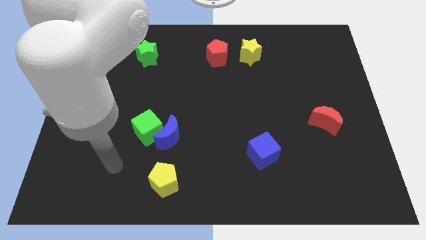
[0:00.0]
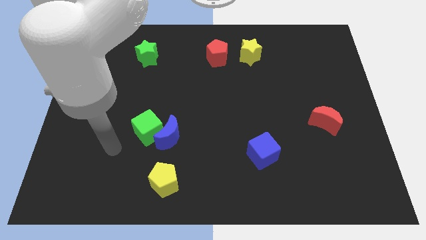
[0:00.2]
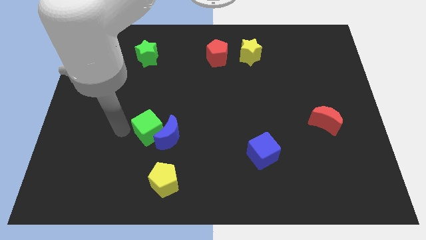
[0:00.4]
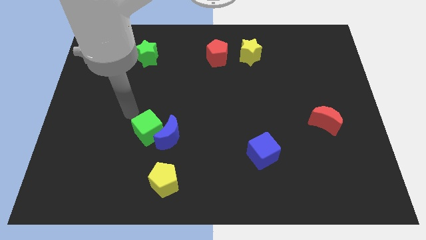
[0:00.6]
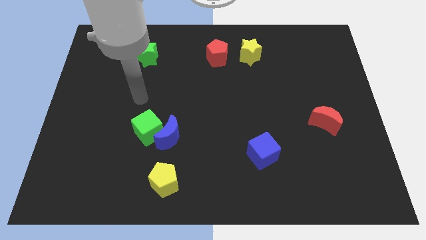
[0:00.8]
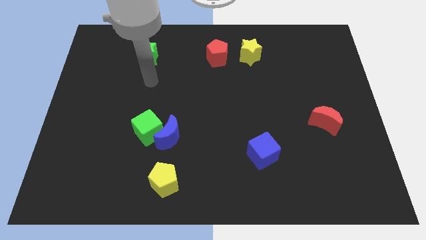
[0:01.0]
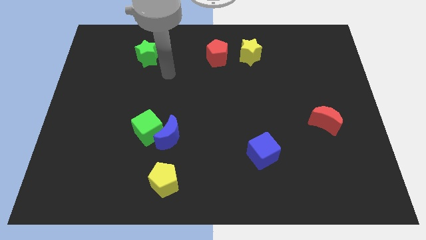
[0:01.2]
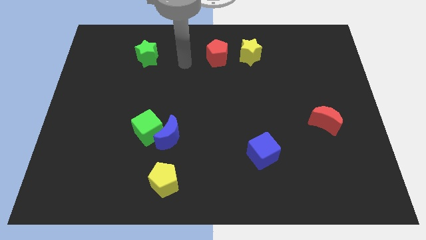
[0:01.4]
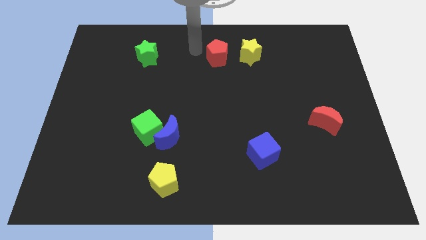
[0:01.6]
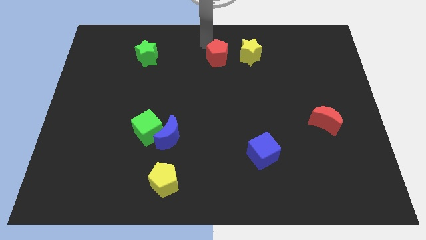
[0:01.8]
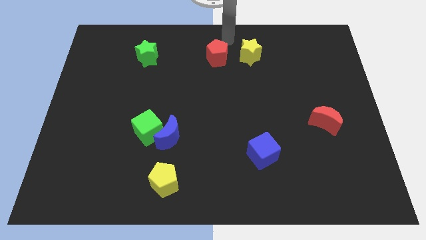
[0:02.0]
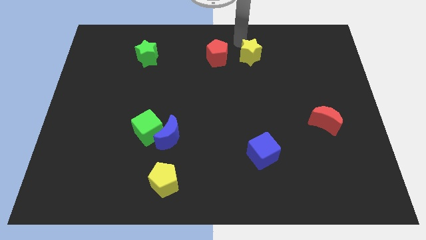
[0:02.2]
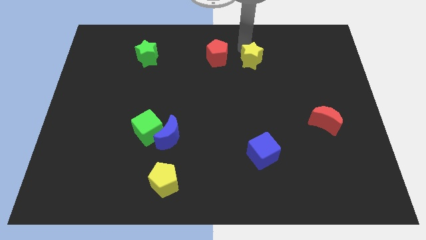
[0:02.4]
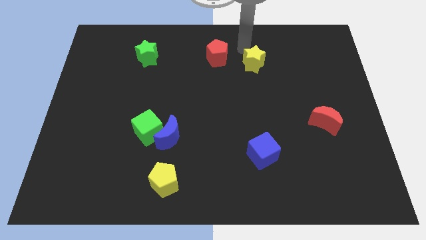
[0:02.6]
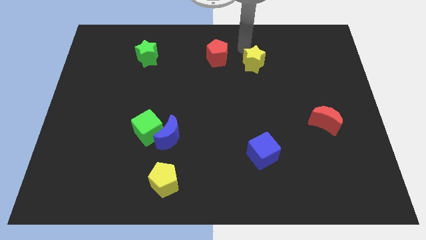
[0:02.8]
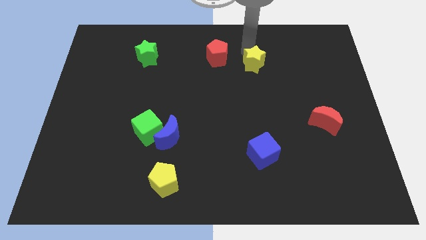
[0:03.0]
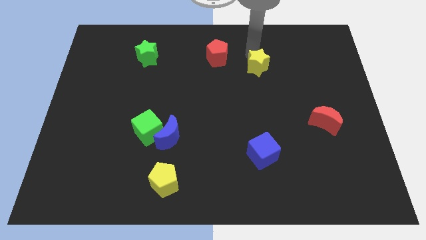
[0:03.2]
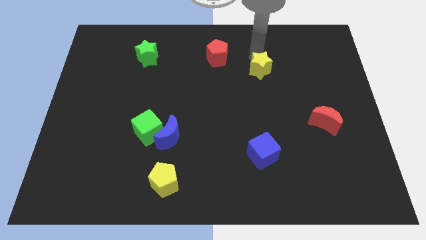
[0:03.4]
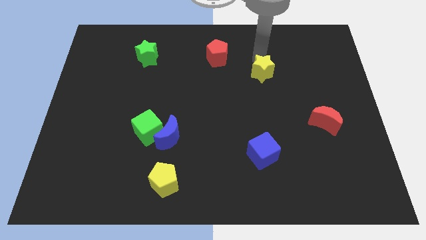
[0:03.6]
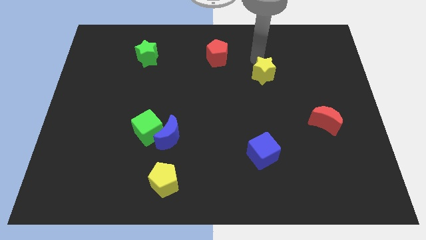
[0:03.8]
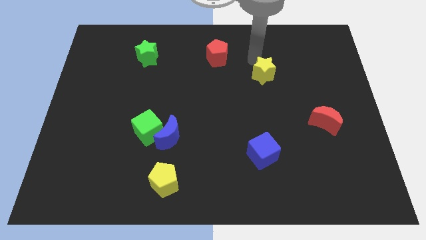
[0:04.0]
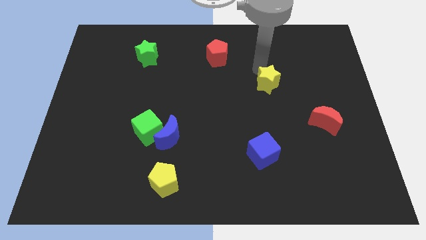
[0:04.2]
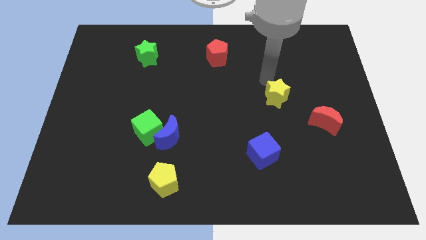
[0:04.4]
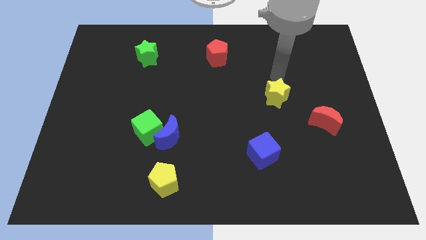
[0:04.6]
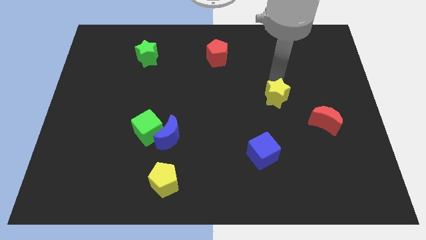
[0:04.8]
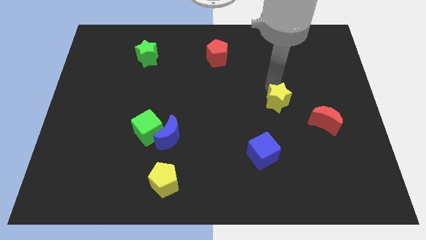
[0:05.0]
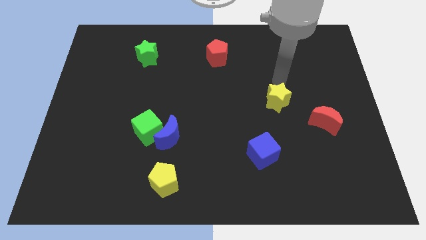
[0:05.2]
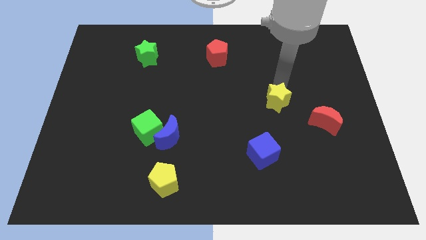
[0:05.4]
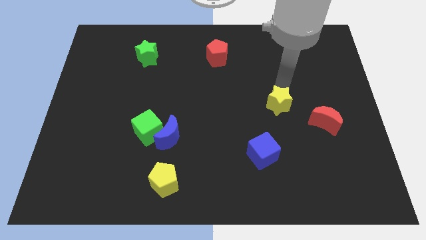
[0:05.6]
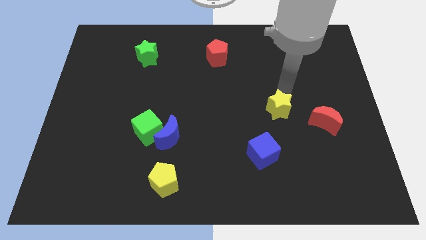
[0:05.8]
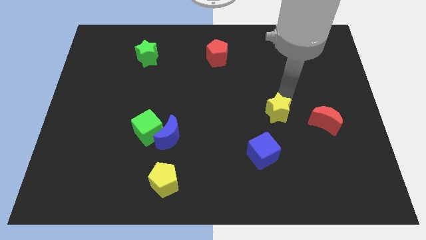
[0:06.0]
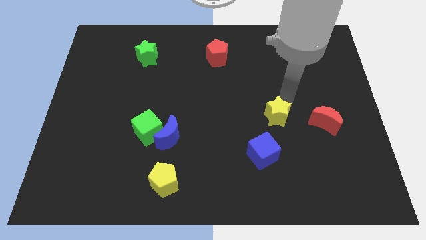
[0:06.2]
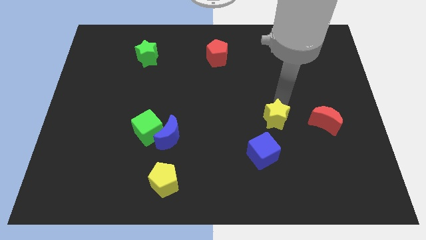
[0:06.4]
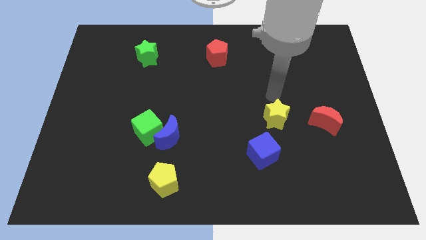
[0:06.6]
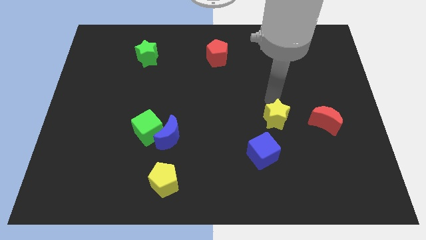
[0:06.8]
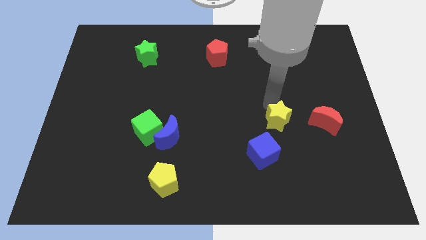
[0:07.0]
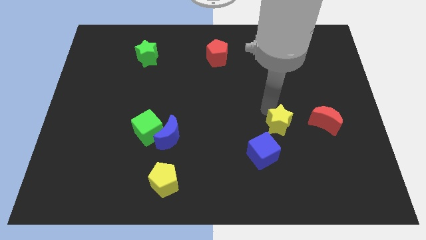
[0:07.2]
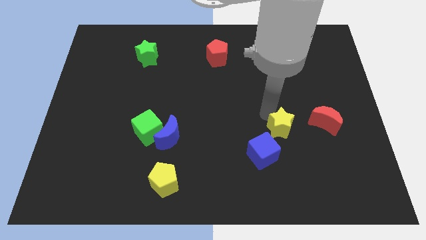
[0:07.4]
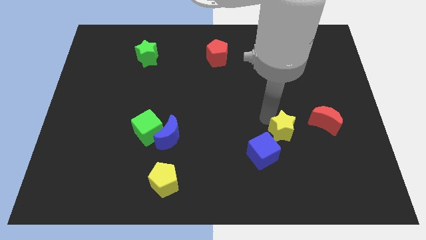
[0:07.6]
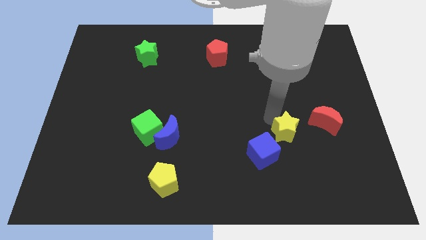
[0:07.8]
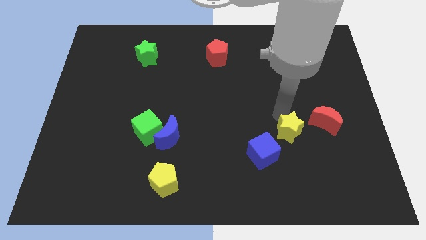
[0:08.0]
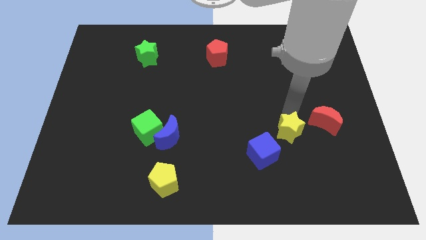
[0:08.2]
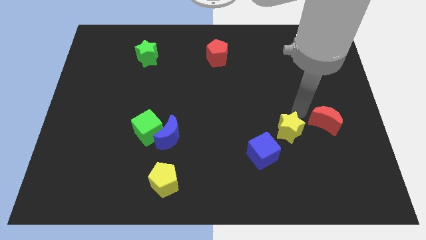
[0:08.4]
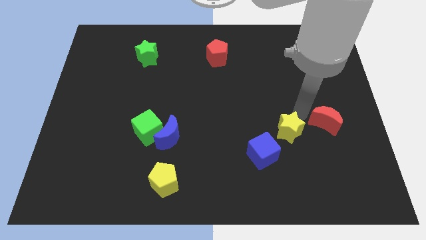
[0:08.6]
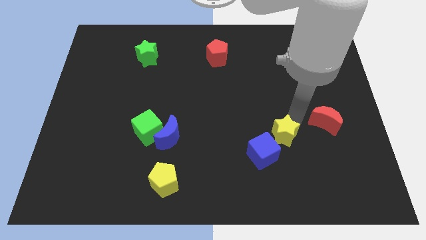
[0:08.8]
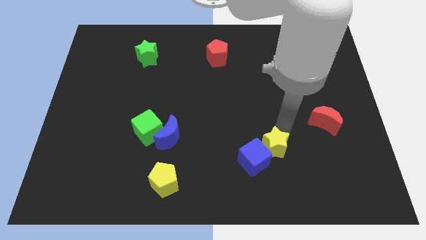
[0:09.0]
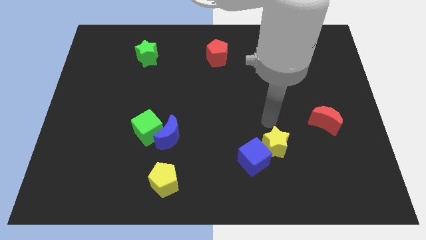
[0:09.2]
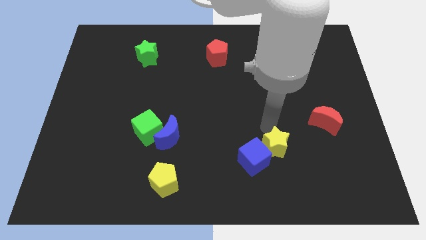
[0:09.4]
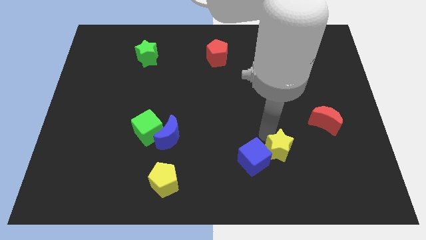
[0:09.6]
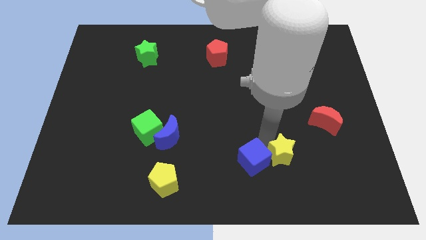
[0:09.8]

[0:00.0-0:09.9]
push the yellow star diagonally down and to the right of the blue cube

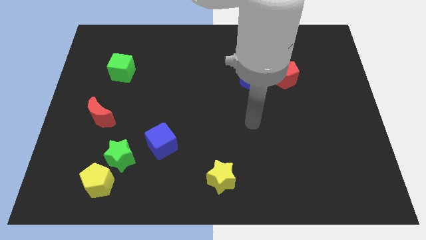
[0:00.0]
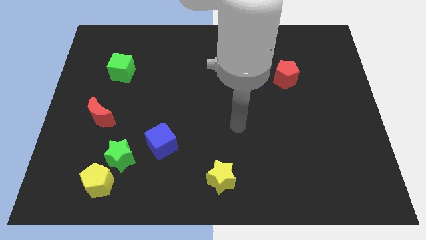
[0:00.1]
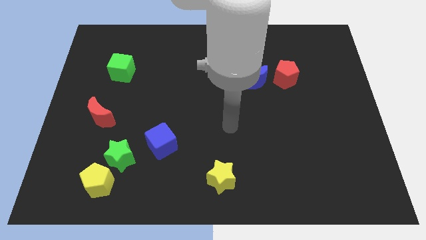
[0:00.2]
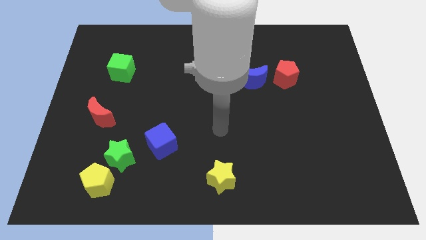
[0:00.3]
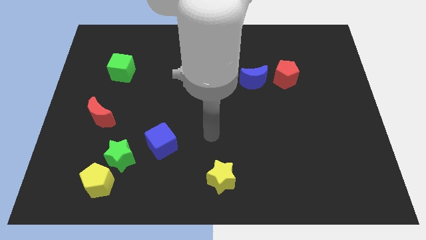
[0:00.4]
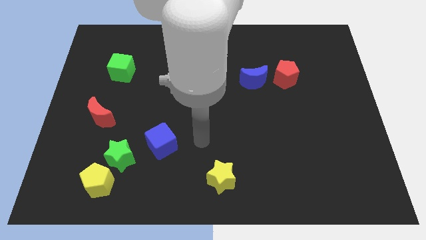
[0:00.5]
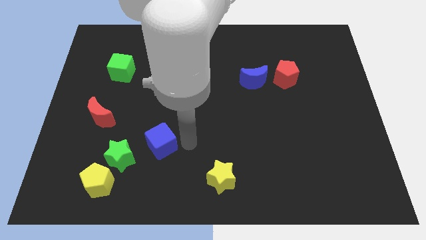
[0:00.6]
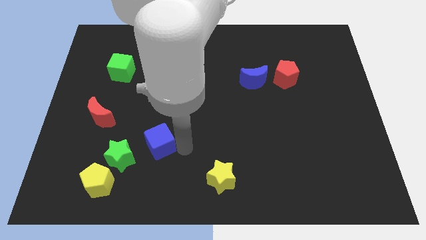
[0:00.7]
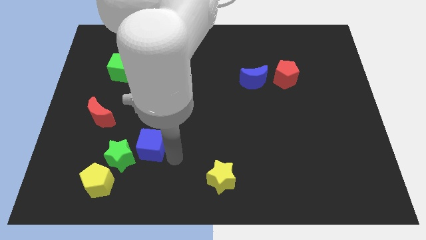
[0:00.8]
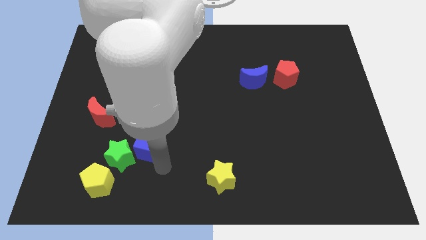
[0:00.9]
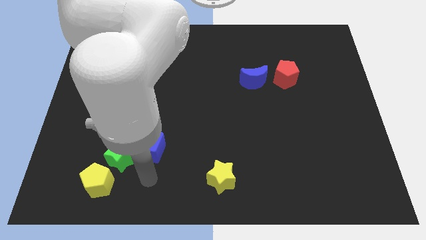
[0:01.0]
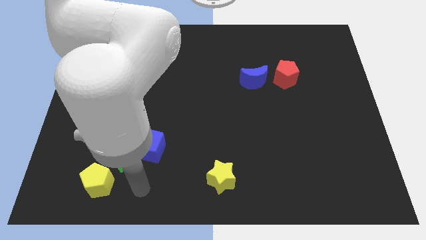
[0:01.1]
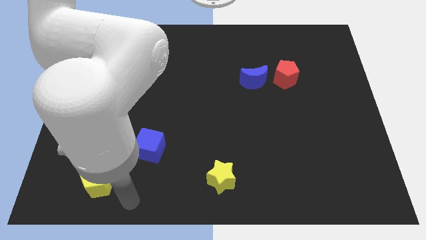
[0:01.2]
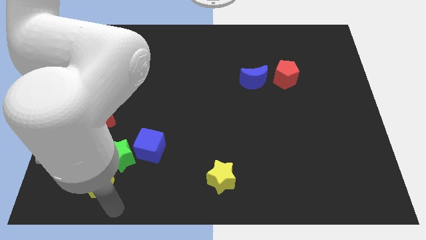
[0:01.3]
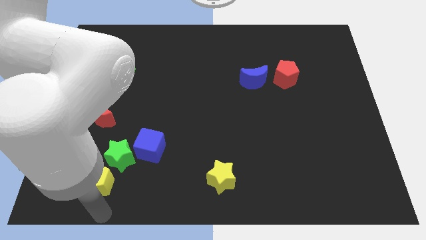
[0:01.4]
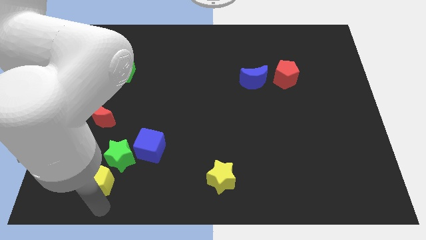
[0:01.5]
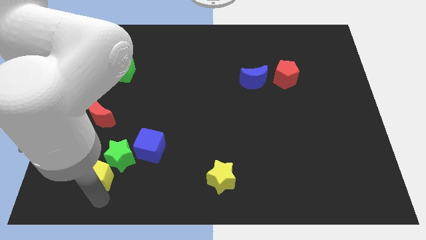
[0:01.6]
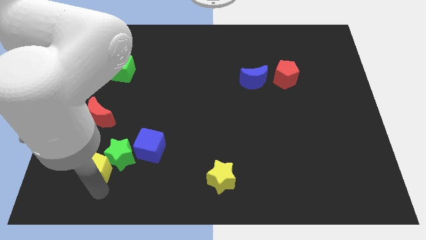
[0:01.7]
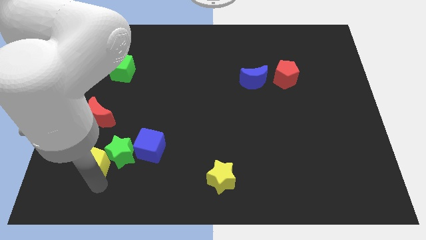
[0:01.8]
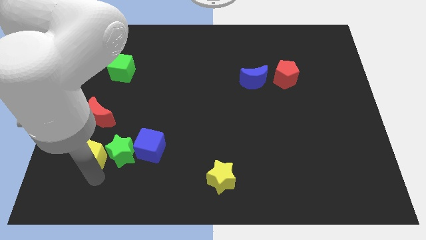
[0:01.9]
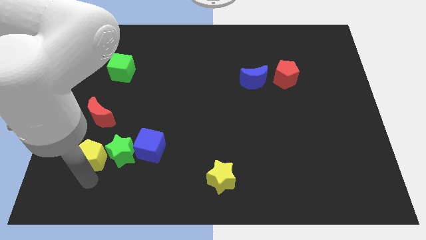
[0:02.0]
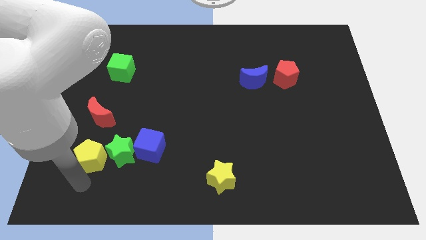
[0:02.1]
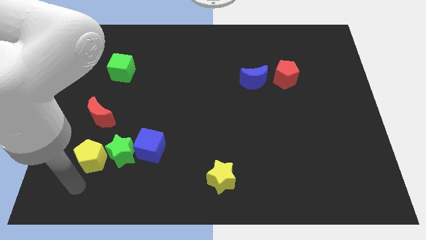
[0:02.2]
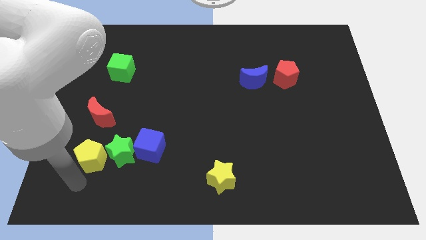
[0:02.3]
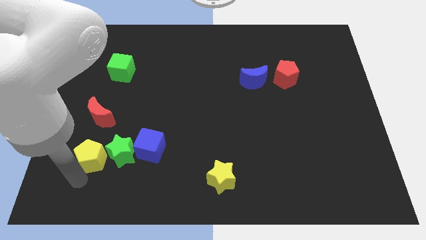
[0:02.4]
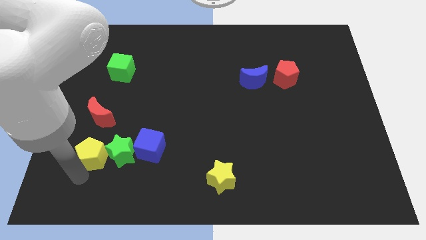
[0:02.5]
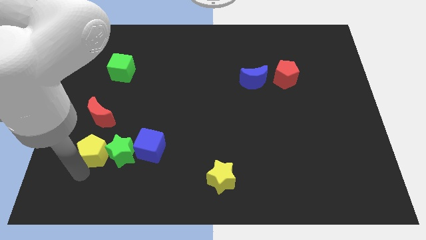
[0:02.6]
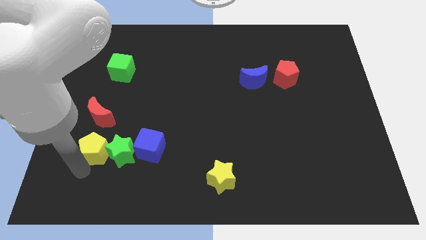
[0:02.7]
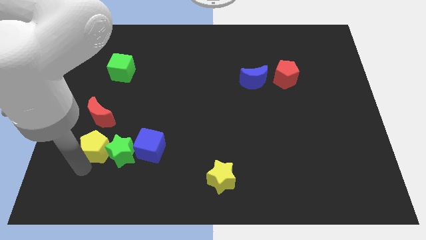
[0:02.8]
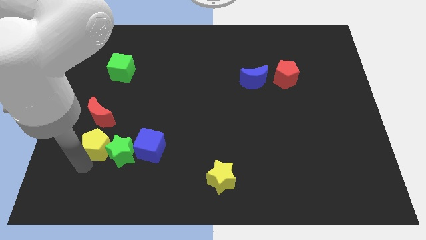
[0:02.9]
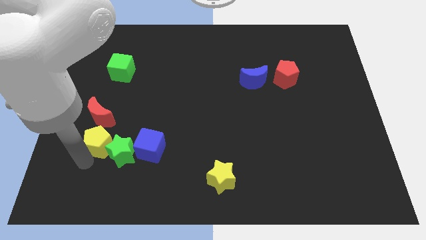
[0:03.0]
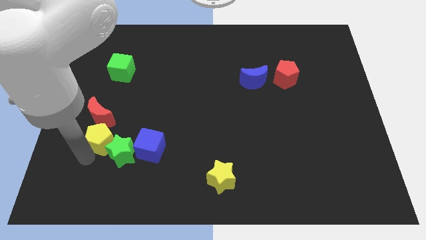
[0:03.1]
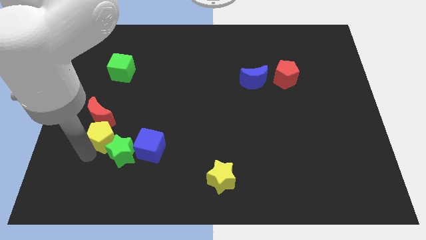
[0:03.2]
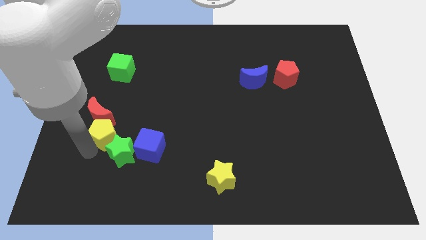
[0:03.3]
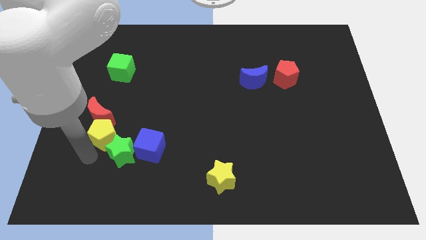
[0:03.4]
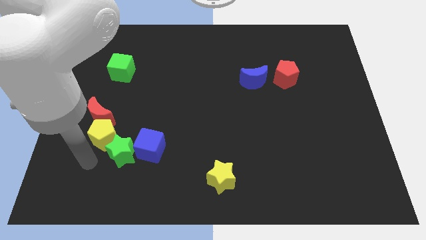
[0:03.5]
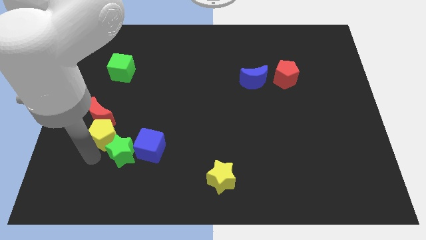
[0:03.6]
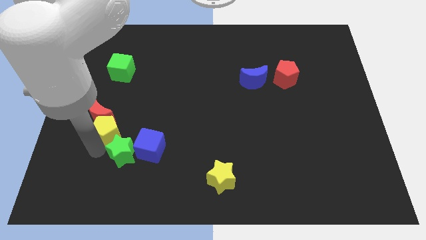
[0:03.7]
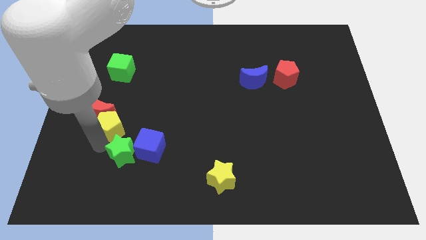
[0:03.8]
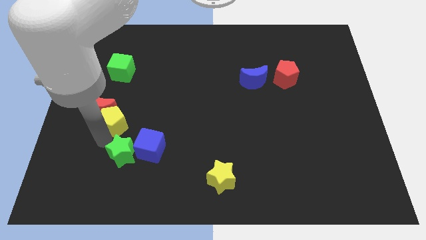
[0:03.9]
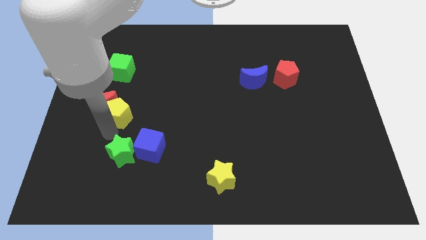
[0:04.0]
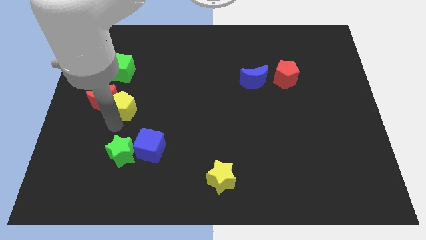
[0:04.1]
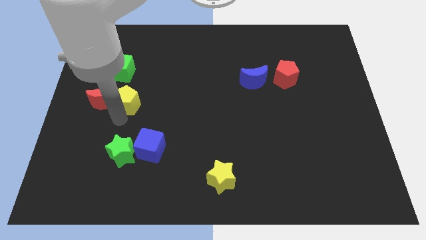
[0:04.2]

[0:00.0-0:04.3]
put the yellow pentagon to the top right of the red moon
